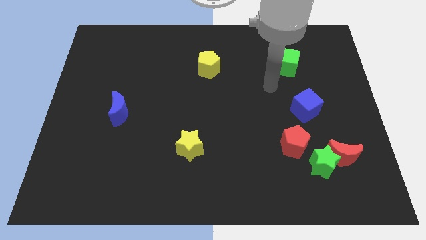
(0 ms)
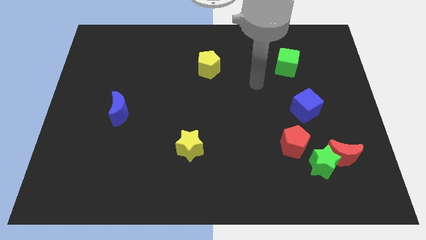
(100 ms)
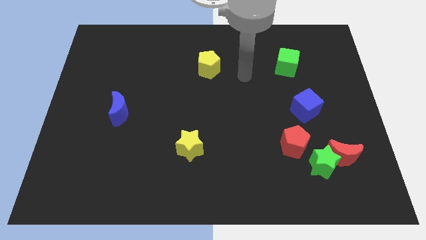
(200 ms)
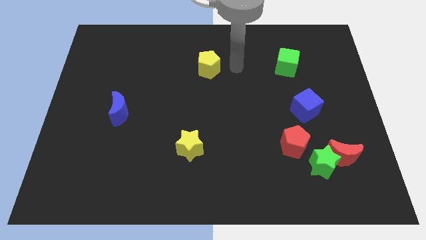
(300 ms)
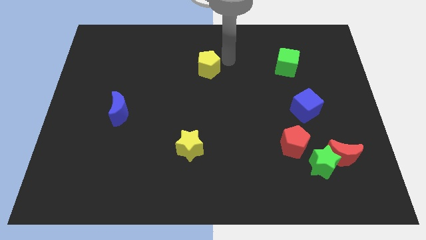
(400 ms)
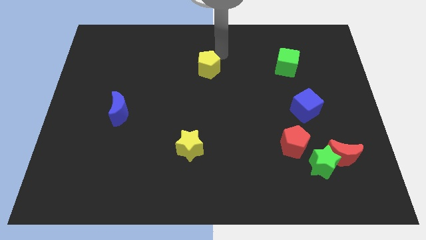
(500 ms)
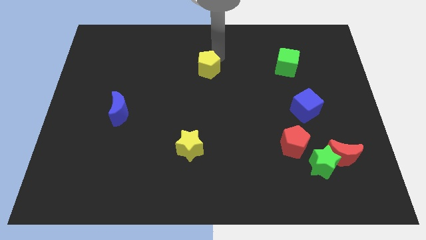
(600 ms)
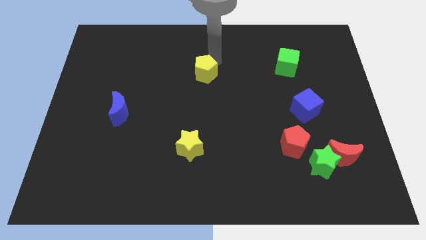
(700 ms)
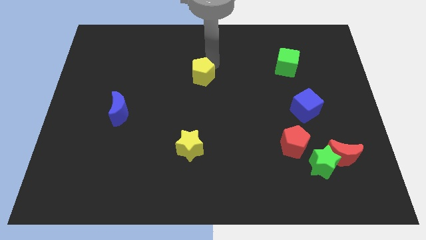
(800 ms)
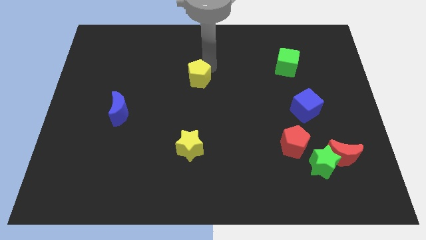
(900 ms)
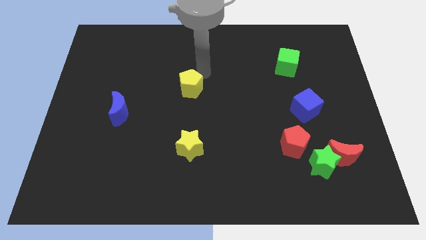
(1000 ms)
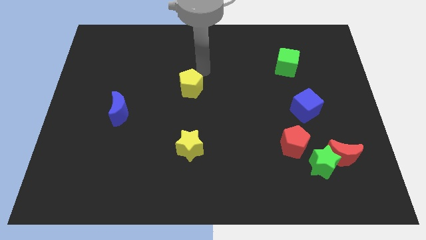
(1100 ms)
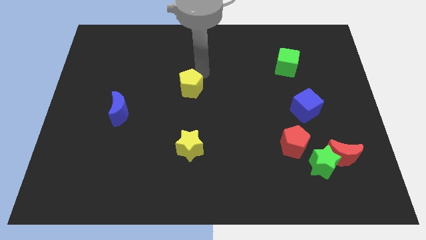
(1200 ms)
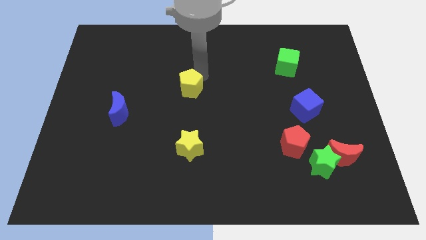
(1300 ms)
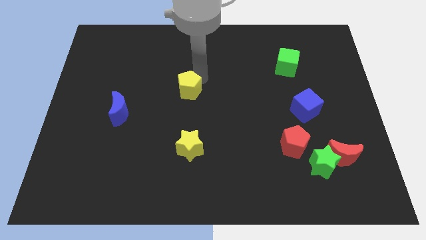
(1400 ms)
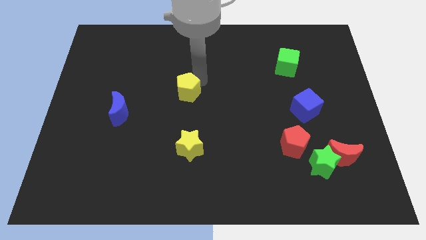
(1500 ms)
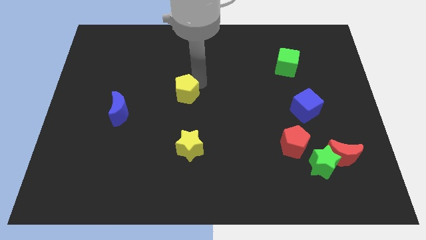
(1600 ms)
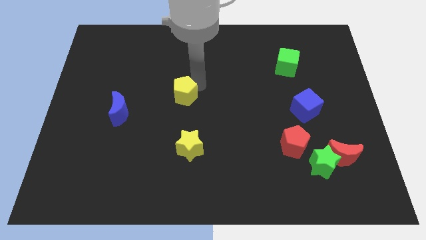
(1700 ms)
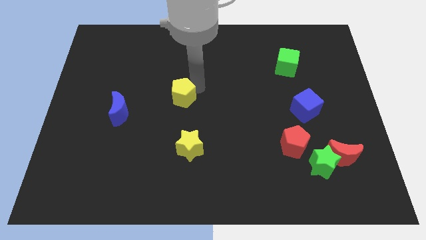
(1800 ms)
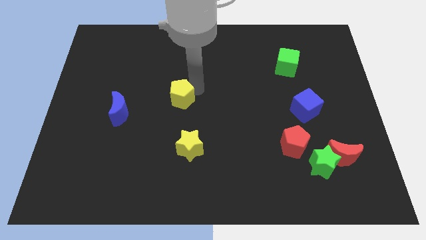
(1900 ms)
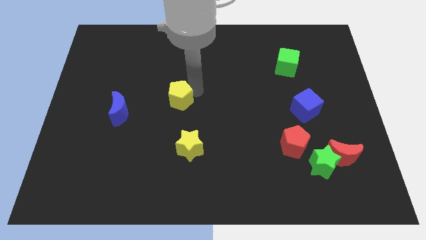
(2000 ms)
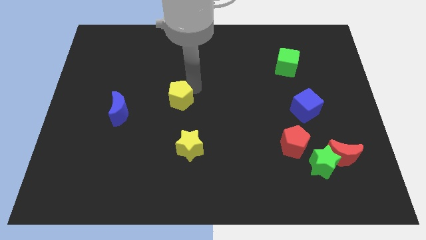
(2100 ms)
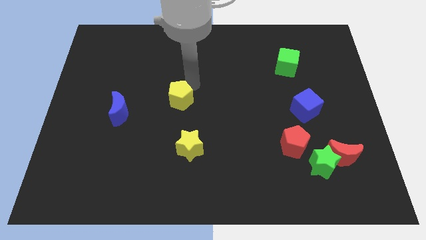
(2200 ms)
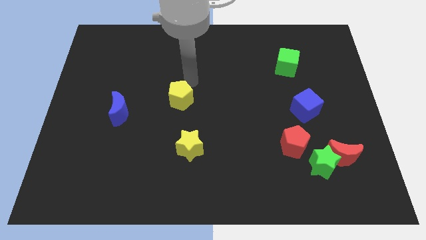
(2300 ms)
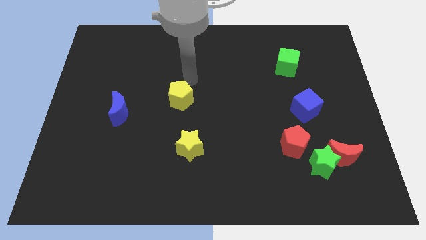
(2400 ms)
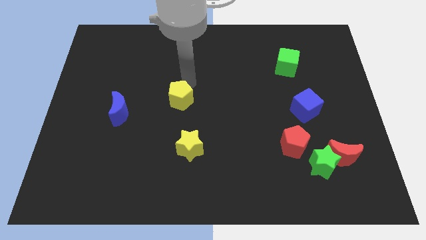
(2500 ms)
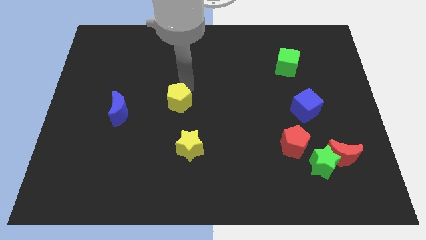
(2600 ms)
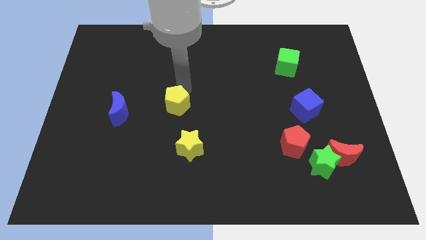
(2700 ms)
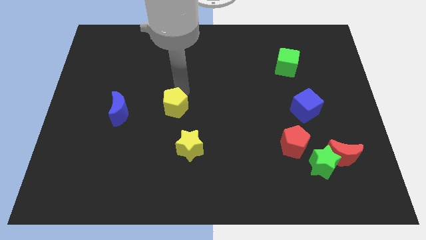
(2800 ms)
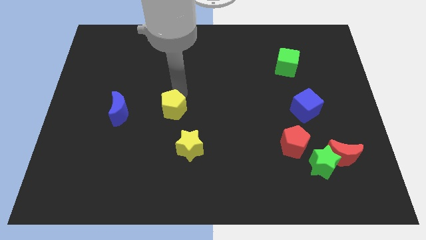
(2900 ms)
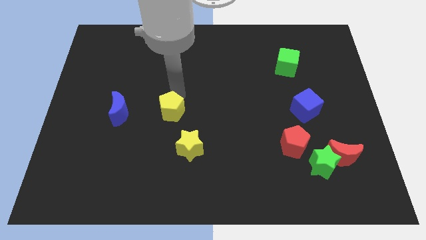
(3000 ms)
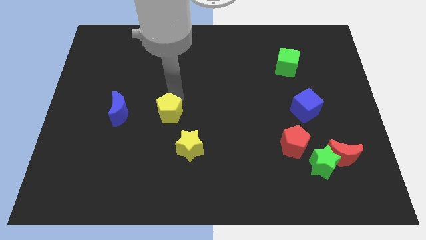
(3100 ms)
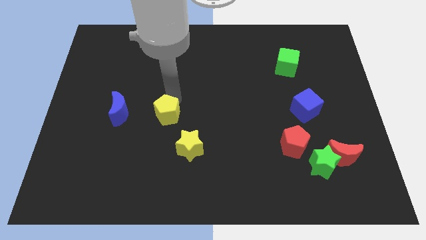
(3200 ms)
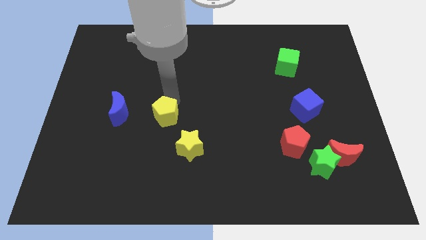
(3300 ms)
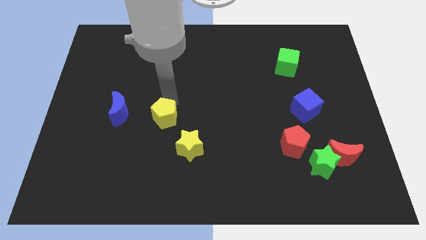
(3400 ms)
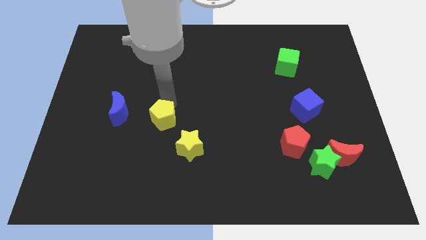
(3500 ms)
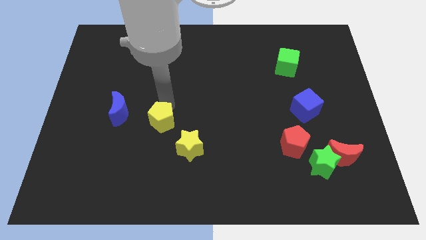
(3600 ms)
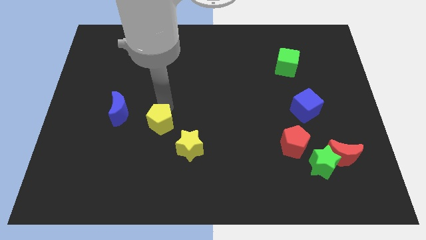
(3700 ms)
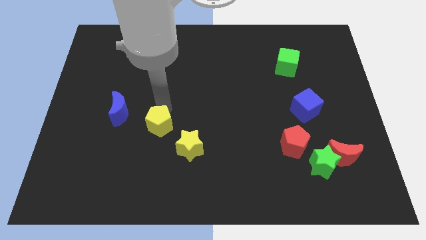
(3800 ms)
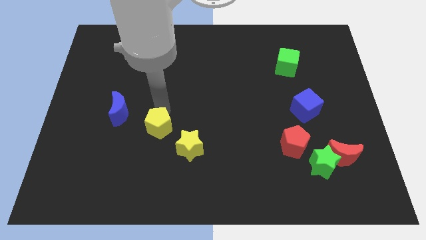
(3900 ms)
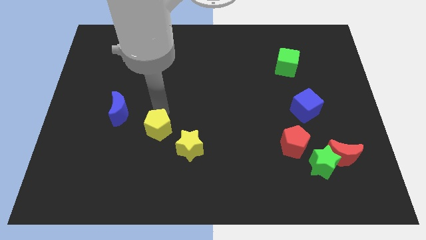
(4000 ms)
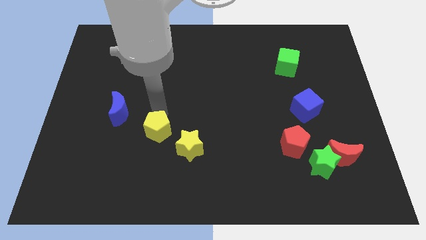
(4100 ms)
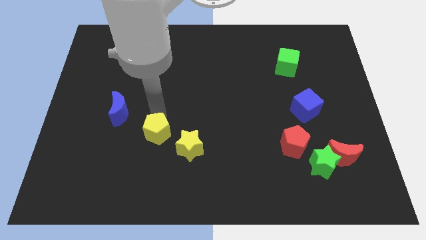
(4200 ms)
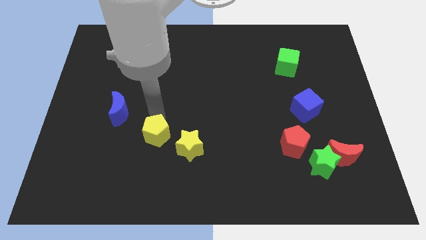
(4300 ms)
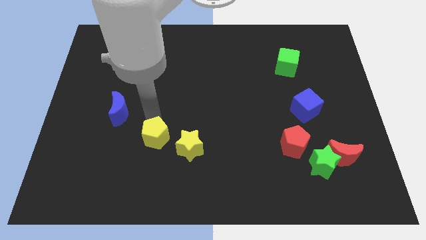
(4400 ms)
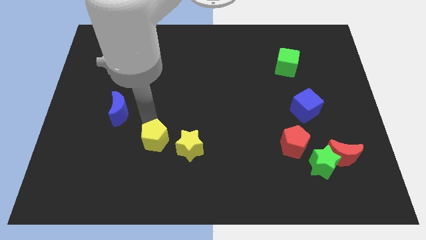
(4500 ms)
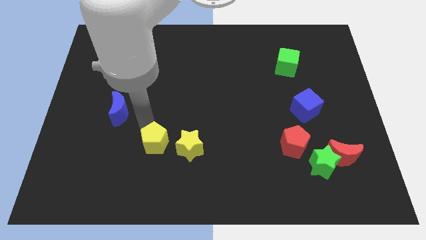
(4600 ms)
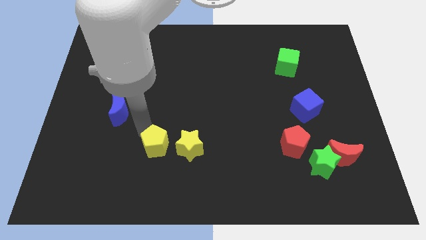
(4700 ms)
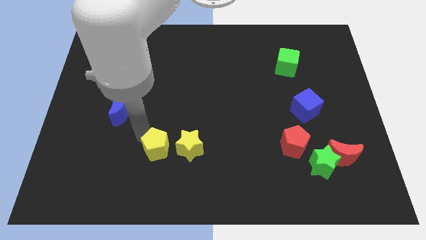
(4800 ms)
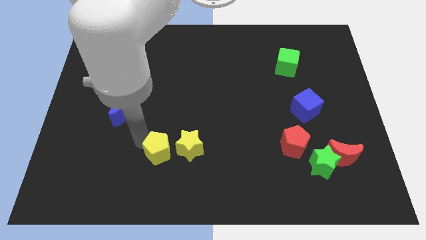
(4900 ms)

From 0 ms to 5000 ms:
move the yellow pentagon to the bottom left side of the yellow star

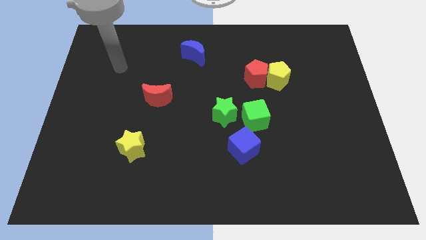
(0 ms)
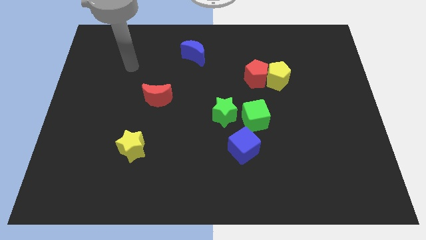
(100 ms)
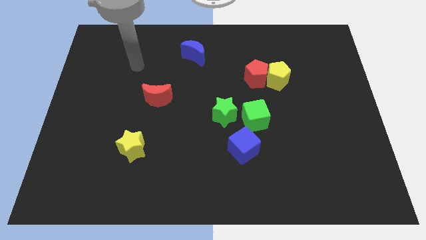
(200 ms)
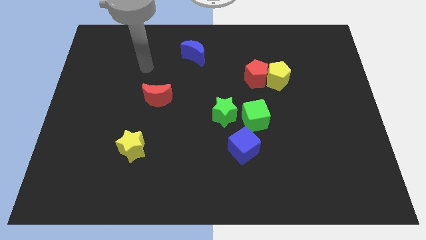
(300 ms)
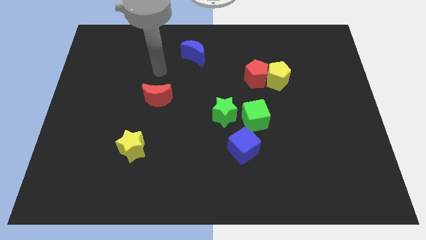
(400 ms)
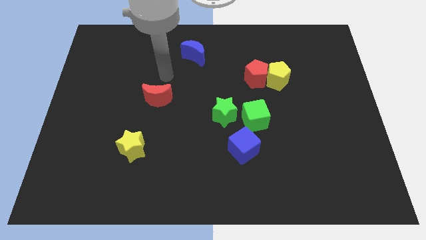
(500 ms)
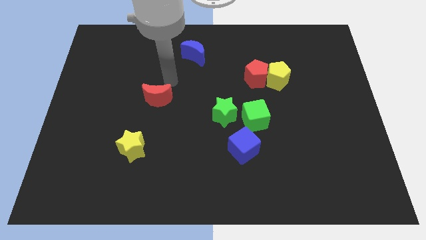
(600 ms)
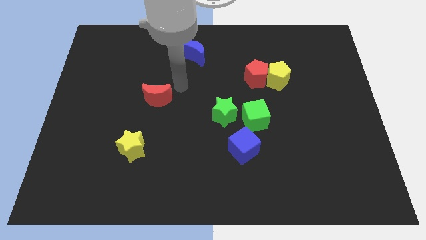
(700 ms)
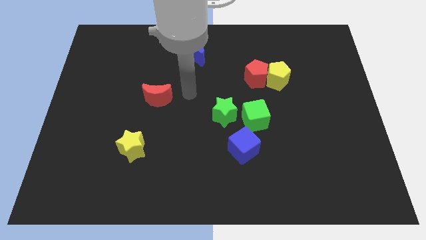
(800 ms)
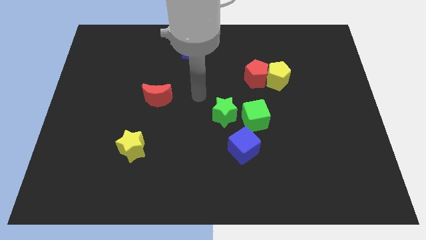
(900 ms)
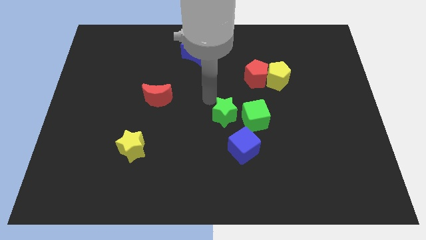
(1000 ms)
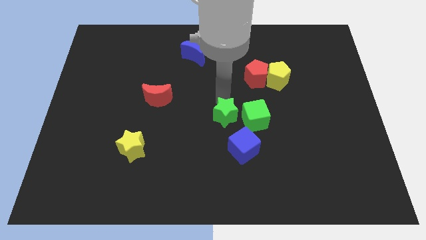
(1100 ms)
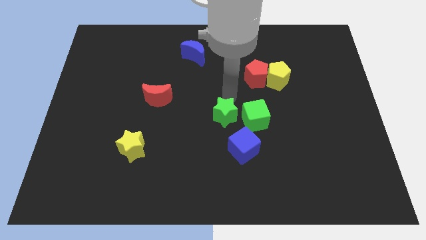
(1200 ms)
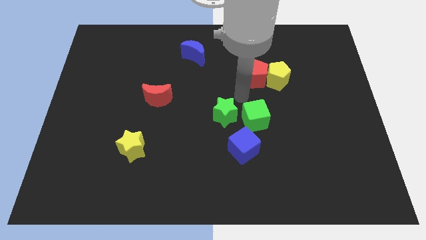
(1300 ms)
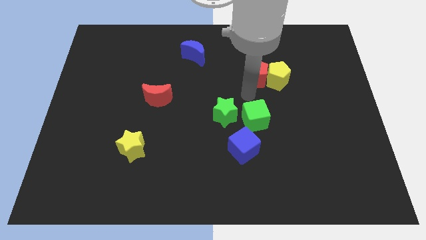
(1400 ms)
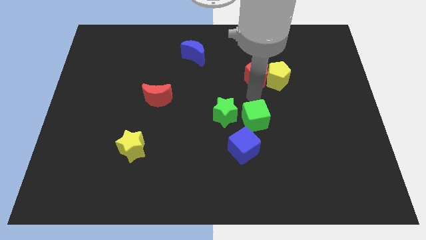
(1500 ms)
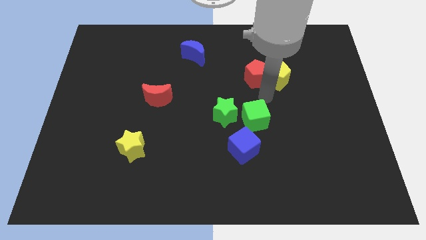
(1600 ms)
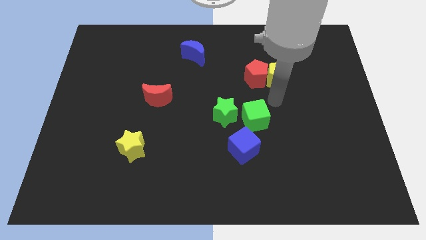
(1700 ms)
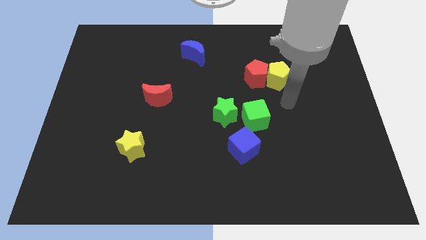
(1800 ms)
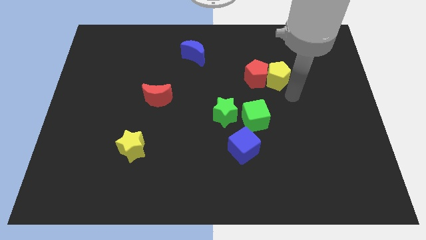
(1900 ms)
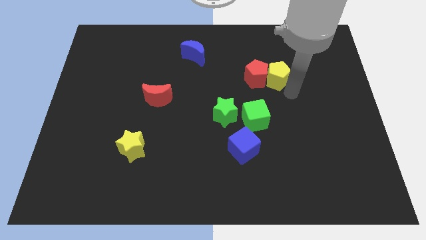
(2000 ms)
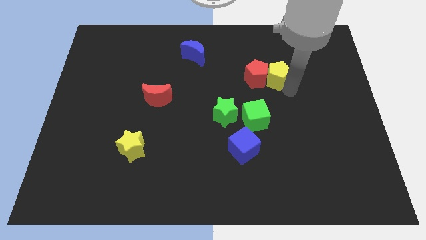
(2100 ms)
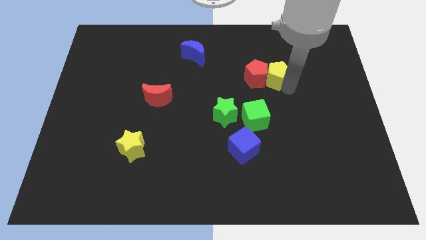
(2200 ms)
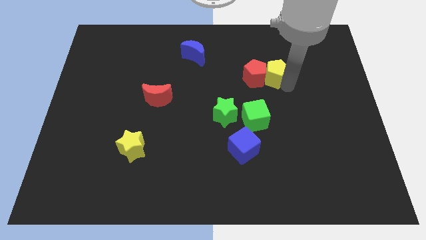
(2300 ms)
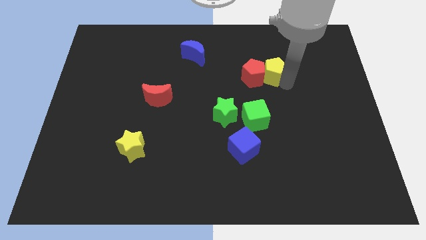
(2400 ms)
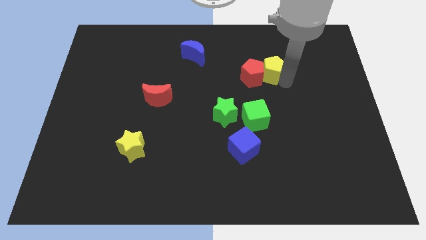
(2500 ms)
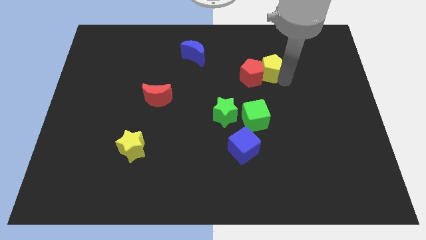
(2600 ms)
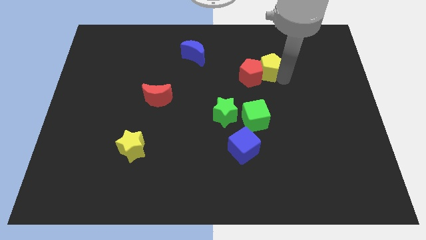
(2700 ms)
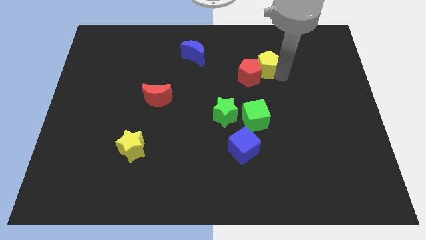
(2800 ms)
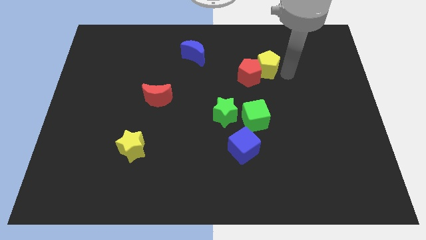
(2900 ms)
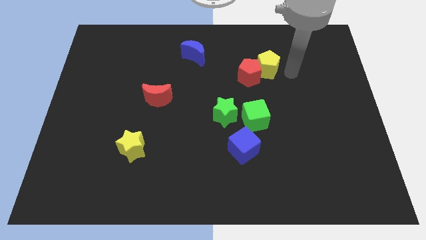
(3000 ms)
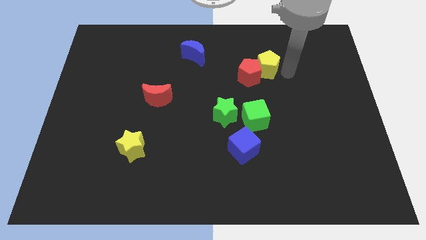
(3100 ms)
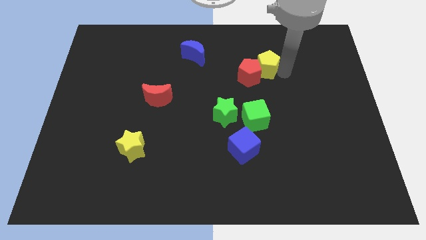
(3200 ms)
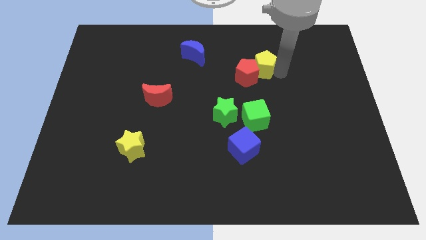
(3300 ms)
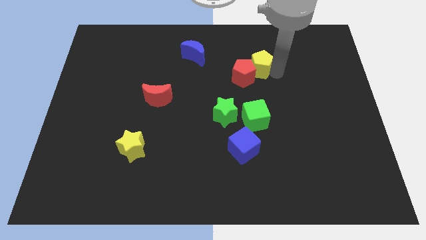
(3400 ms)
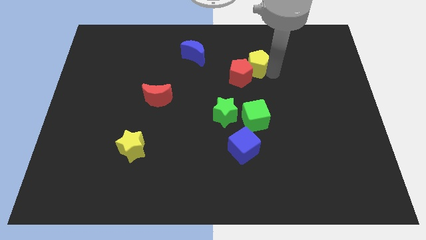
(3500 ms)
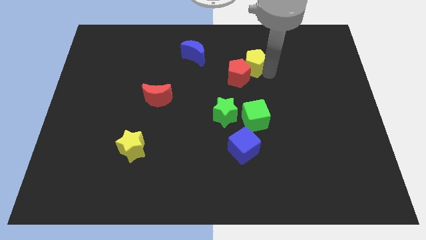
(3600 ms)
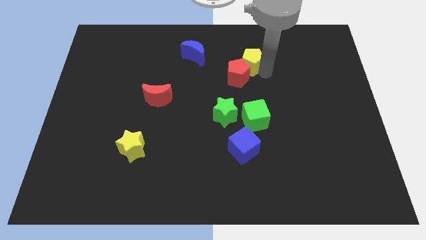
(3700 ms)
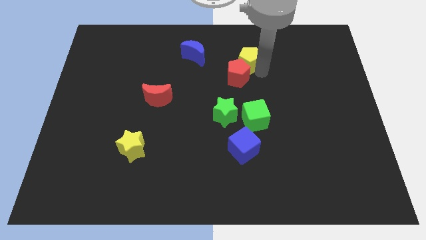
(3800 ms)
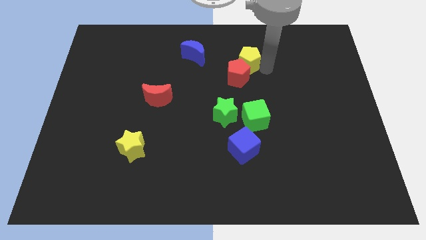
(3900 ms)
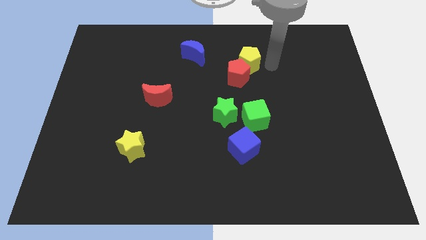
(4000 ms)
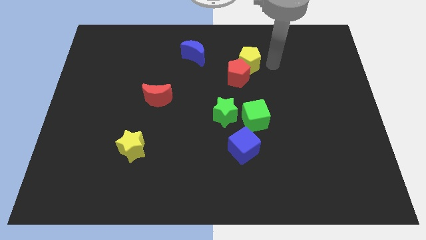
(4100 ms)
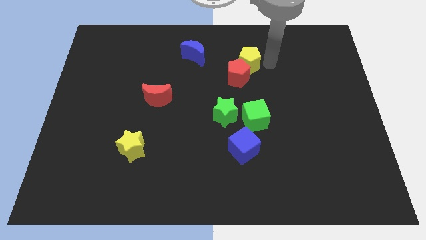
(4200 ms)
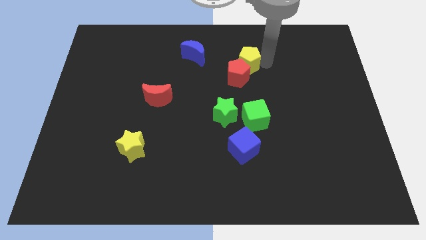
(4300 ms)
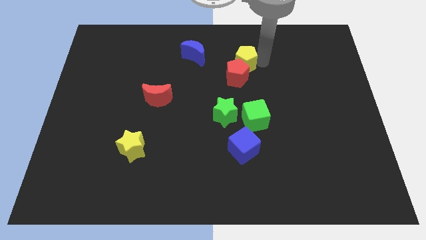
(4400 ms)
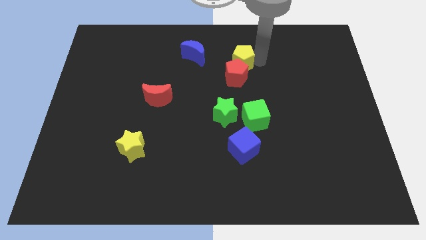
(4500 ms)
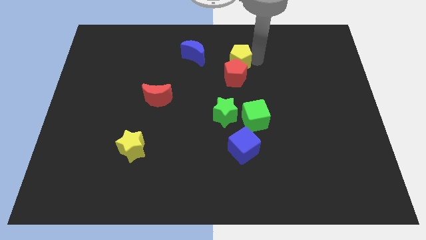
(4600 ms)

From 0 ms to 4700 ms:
slide the yellow pentagon to the top left of the red pentagon
